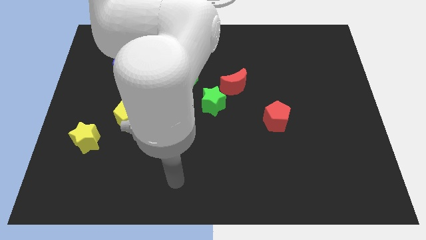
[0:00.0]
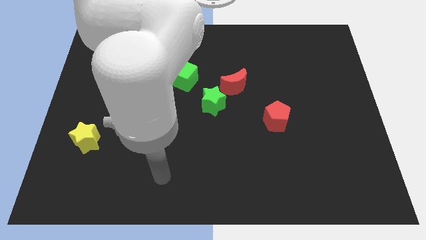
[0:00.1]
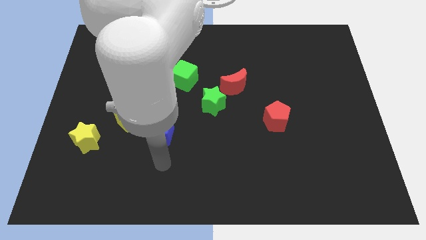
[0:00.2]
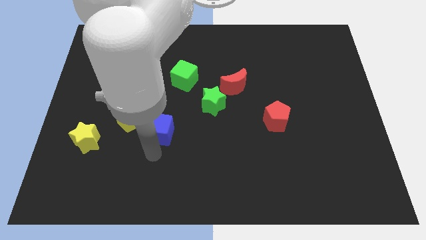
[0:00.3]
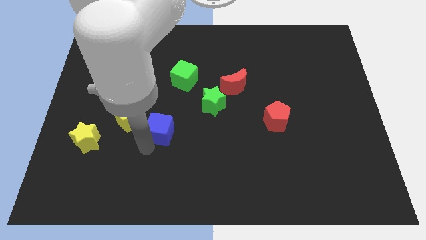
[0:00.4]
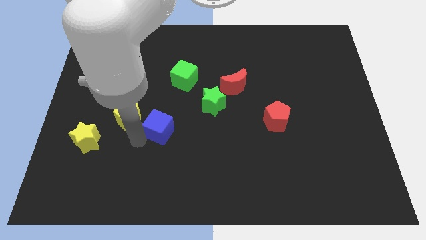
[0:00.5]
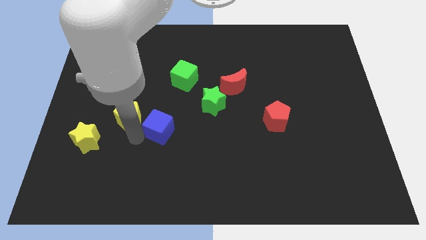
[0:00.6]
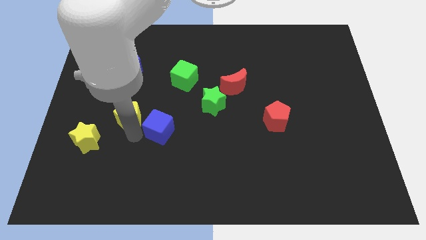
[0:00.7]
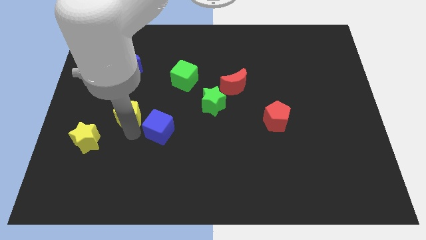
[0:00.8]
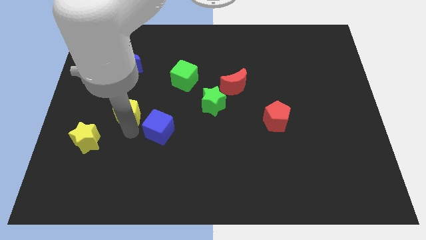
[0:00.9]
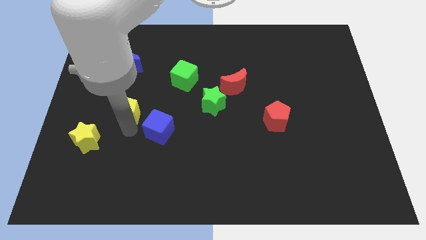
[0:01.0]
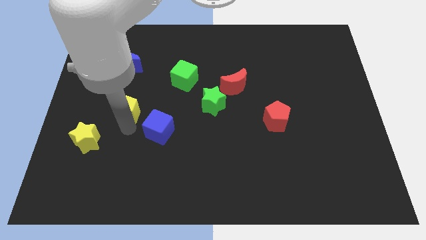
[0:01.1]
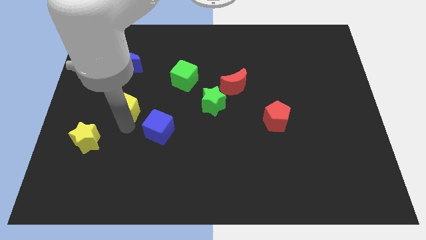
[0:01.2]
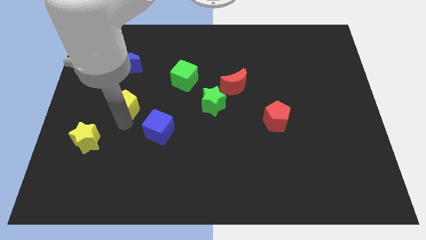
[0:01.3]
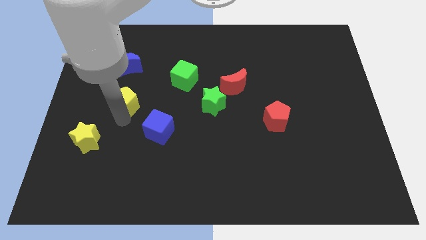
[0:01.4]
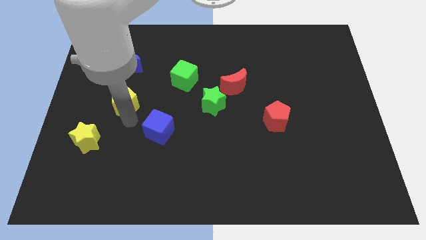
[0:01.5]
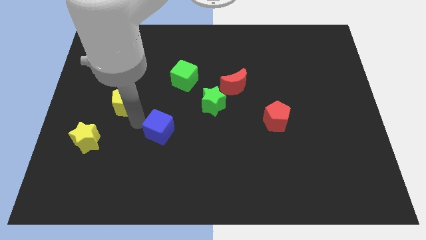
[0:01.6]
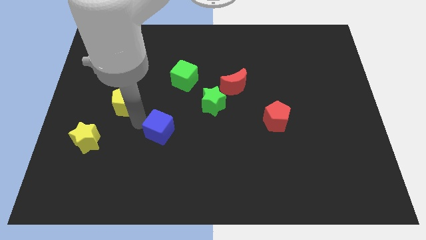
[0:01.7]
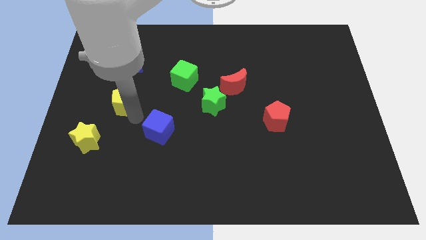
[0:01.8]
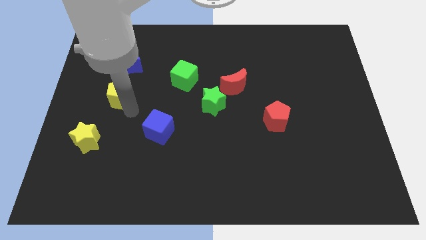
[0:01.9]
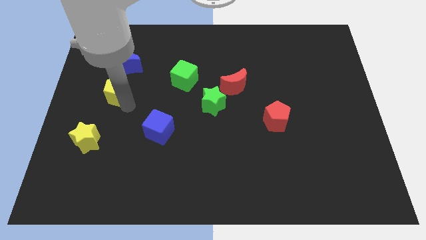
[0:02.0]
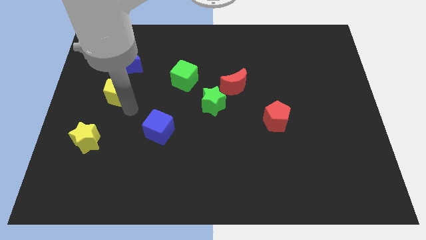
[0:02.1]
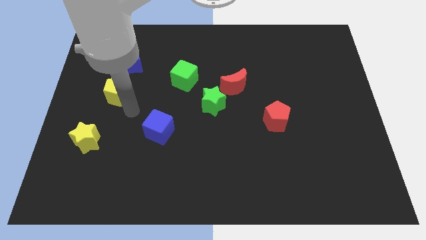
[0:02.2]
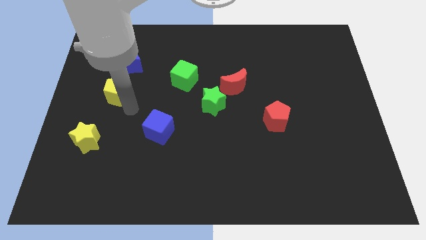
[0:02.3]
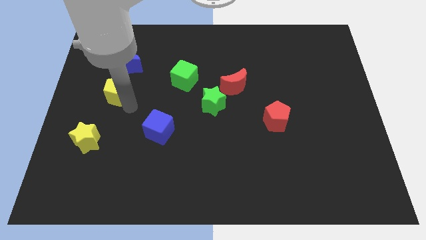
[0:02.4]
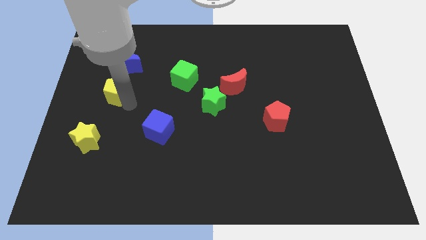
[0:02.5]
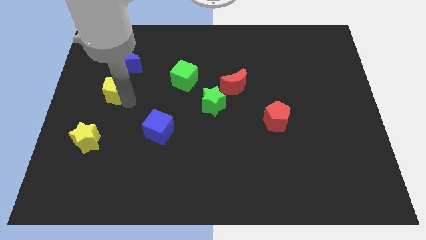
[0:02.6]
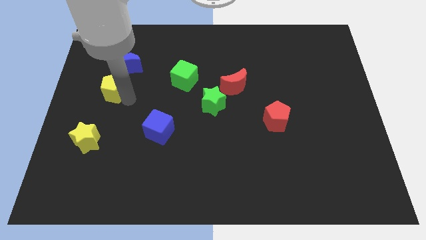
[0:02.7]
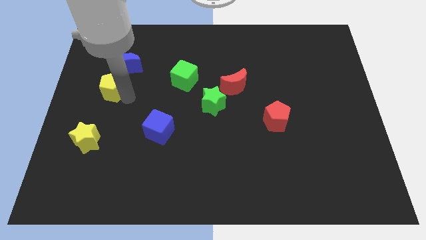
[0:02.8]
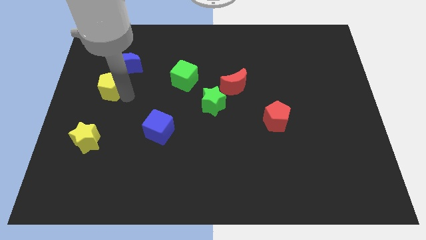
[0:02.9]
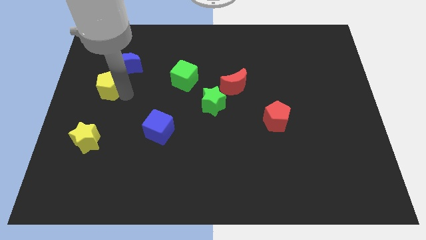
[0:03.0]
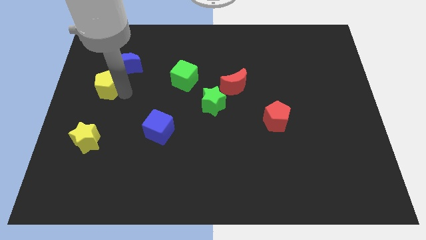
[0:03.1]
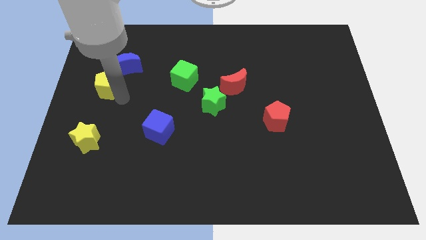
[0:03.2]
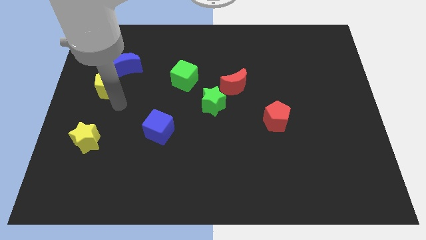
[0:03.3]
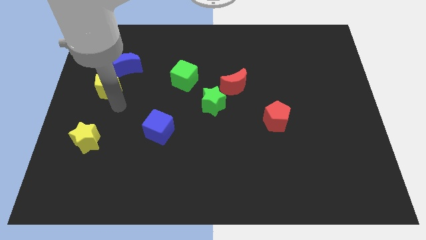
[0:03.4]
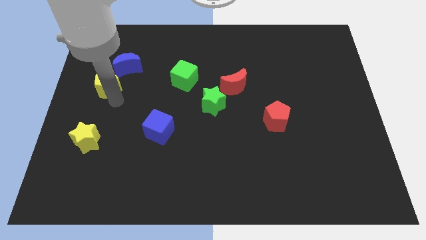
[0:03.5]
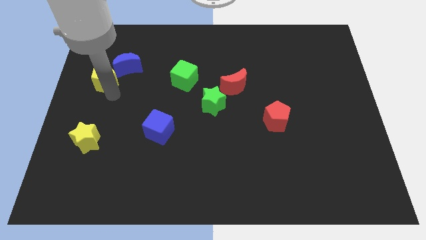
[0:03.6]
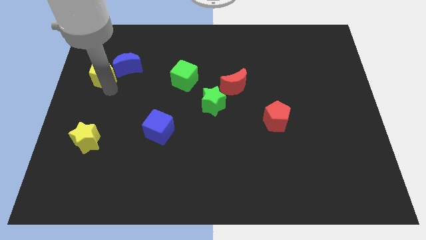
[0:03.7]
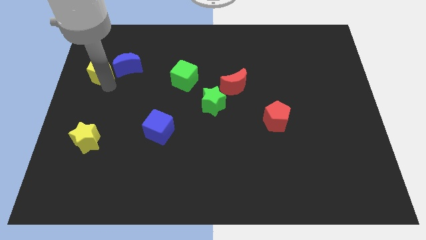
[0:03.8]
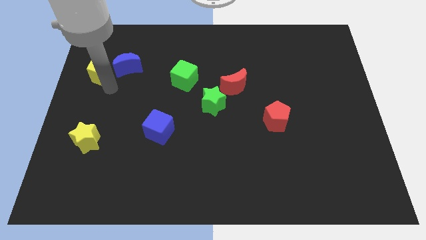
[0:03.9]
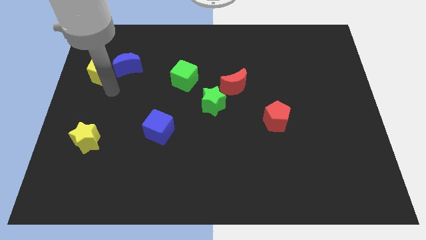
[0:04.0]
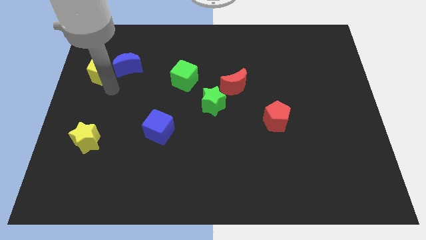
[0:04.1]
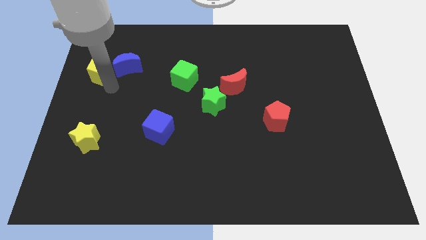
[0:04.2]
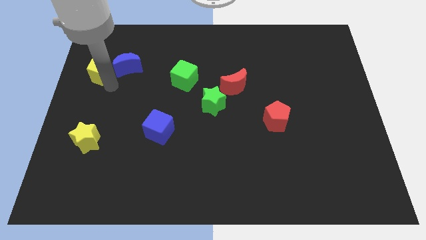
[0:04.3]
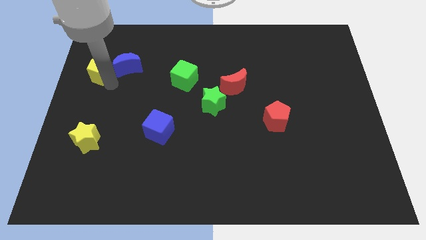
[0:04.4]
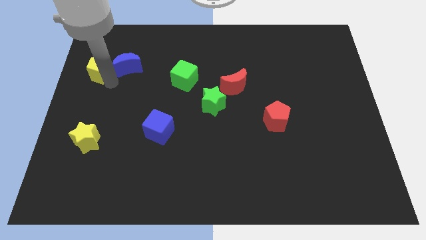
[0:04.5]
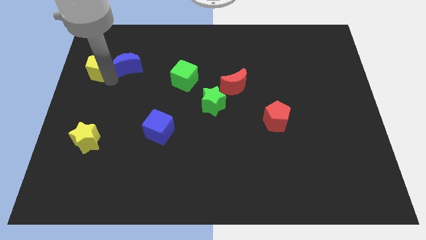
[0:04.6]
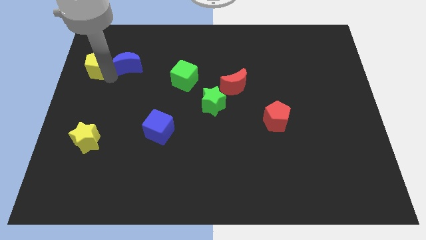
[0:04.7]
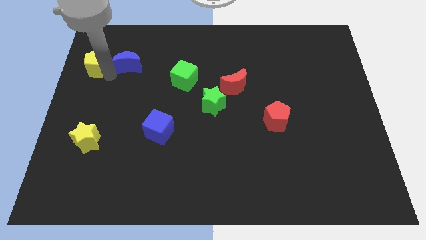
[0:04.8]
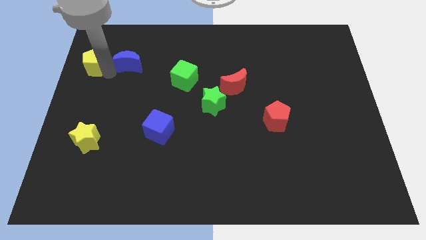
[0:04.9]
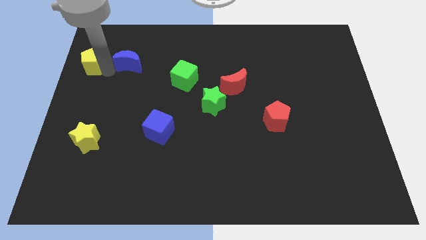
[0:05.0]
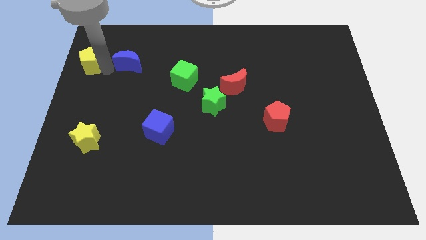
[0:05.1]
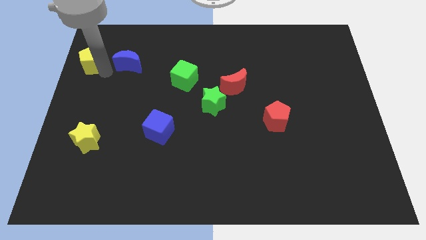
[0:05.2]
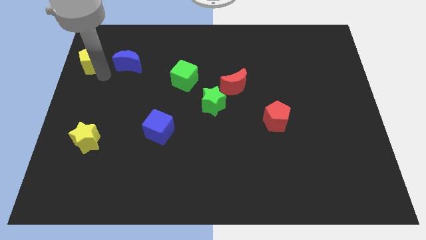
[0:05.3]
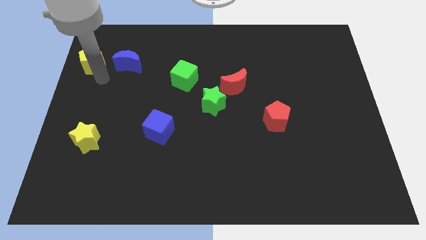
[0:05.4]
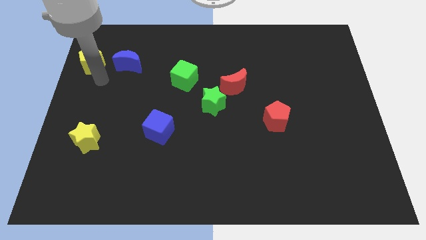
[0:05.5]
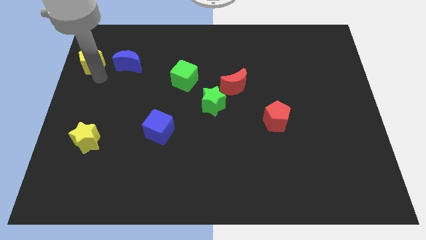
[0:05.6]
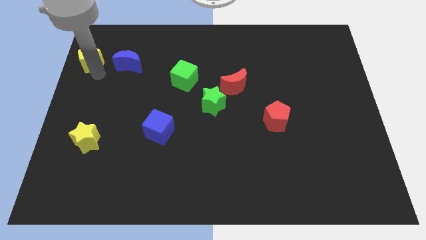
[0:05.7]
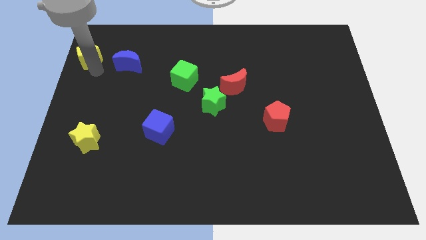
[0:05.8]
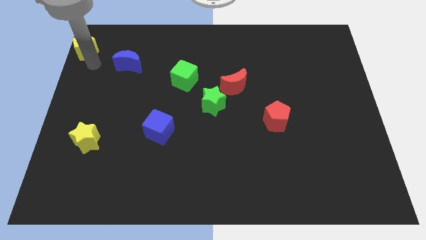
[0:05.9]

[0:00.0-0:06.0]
put the yellow pentagon to the top left of the board
